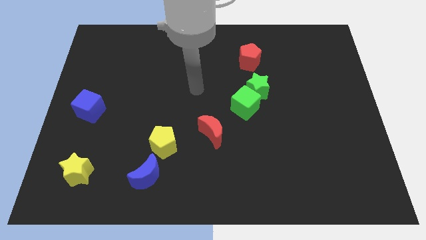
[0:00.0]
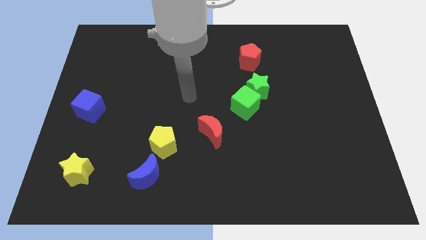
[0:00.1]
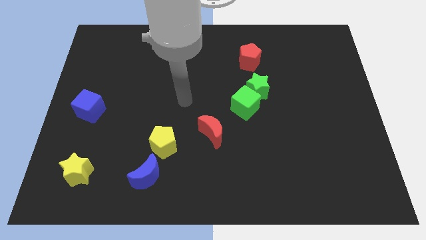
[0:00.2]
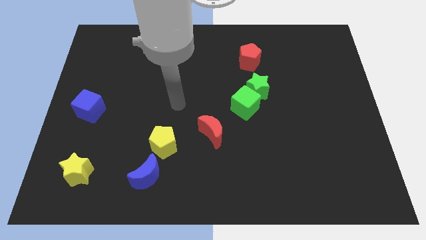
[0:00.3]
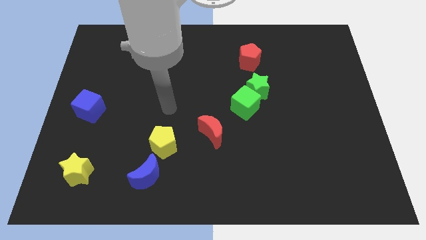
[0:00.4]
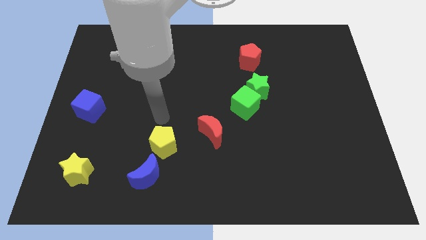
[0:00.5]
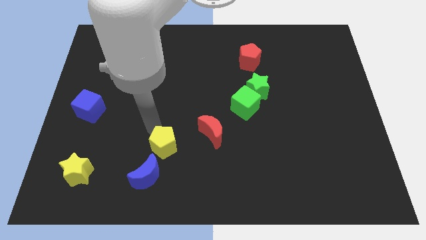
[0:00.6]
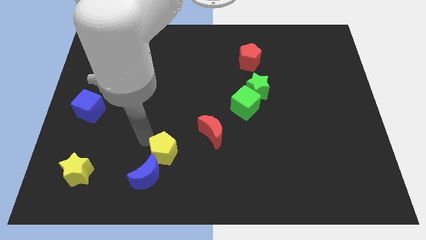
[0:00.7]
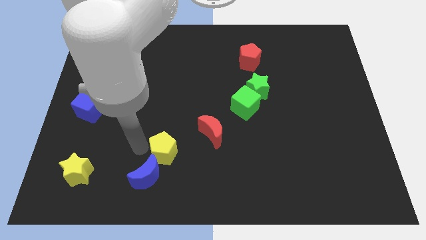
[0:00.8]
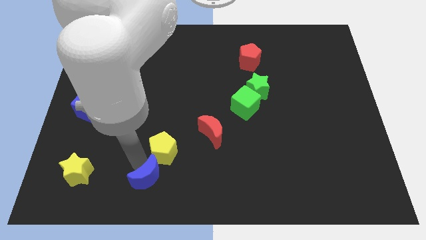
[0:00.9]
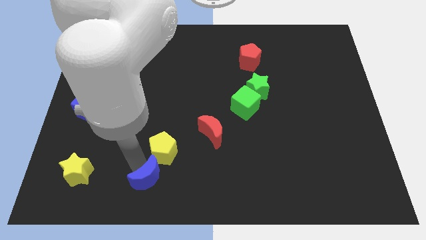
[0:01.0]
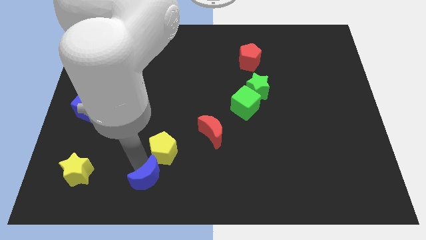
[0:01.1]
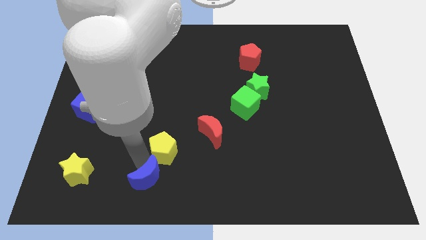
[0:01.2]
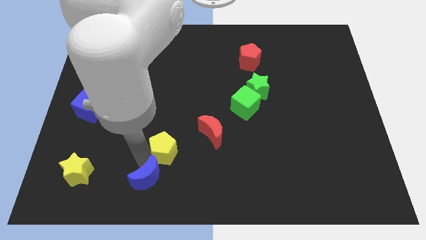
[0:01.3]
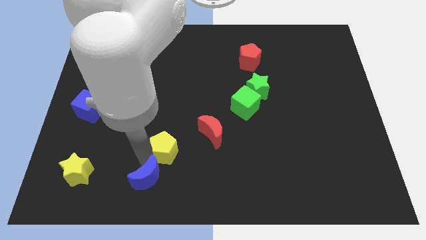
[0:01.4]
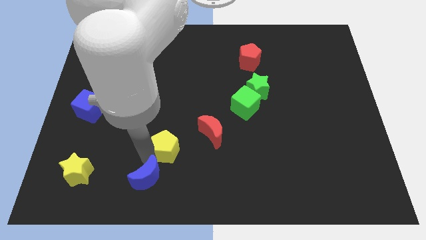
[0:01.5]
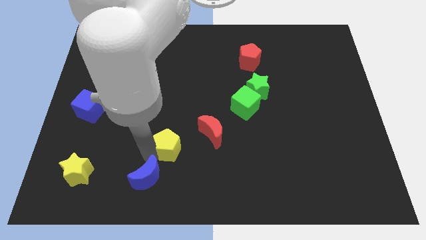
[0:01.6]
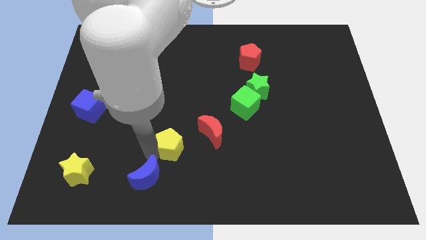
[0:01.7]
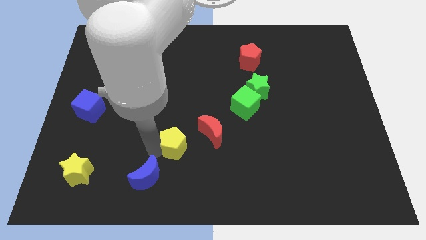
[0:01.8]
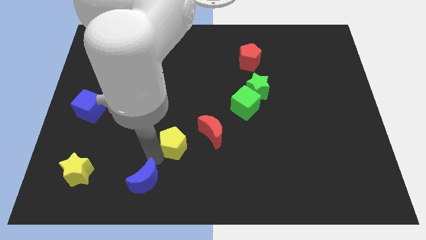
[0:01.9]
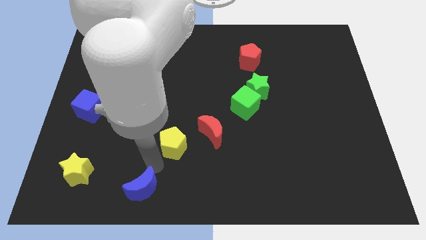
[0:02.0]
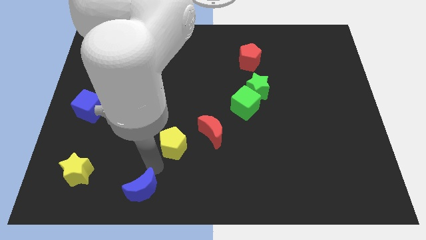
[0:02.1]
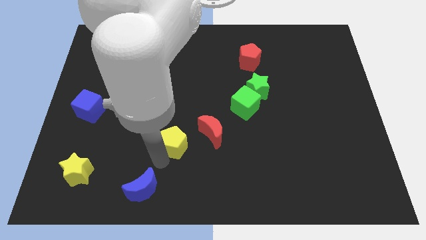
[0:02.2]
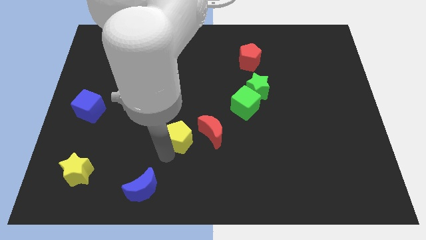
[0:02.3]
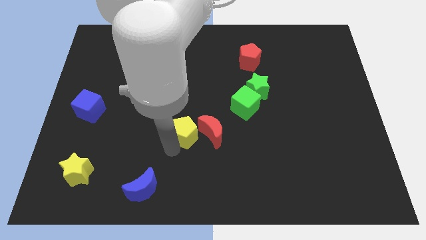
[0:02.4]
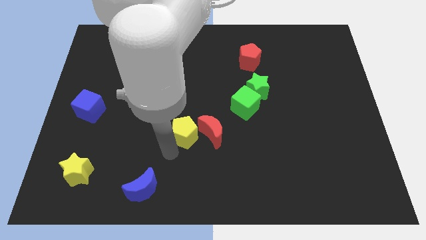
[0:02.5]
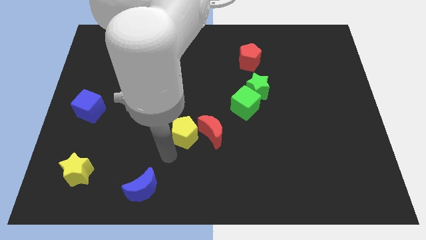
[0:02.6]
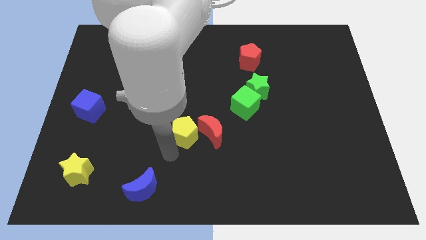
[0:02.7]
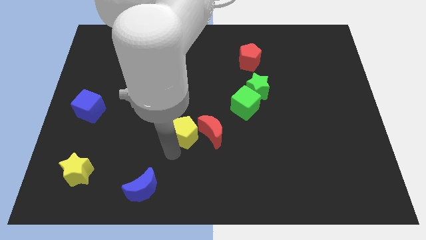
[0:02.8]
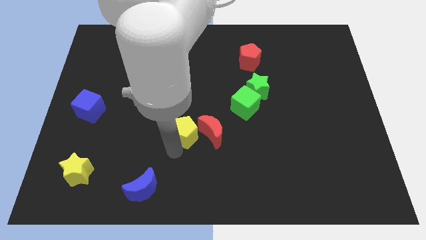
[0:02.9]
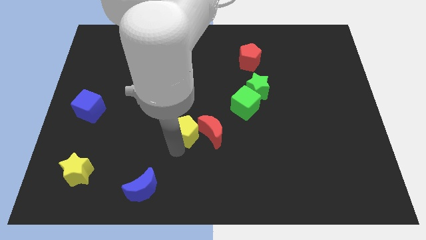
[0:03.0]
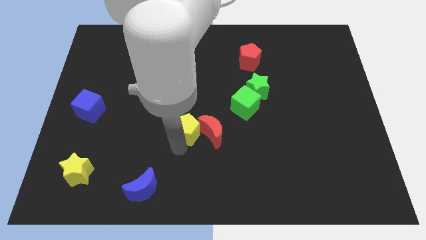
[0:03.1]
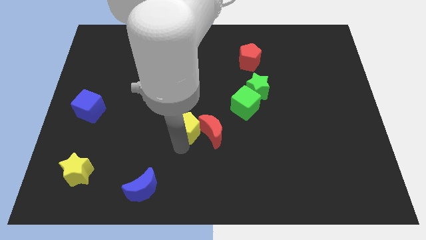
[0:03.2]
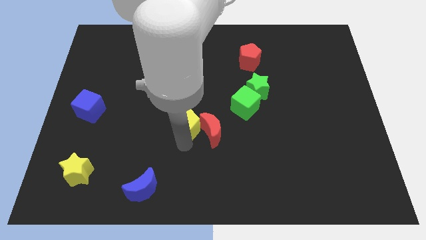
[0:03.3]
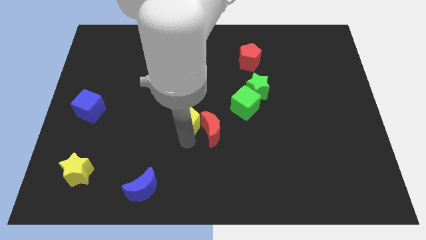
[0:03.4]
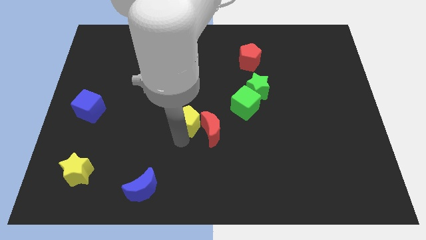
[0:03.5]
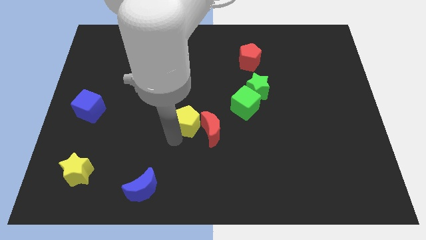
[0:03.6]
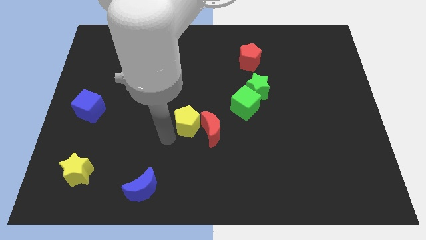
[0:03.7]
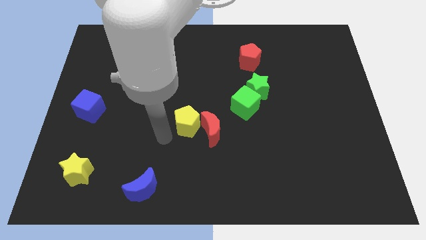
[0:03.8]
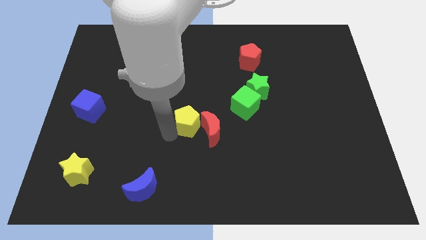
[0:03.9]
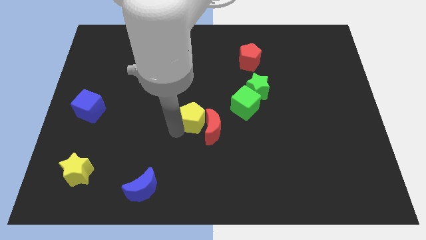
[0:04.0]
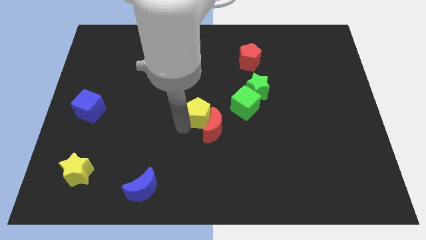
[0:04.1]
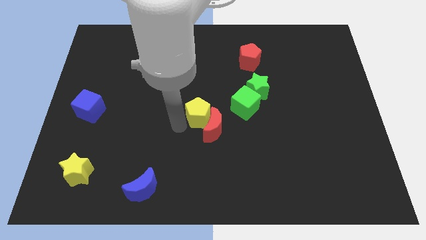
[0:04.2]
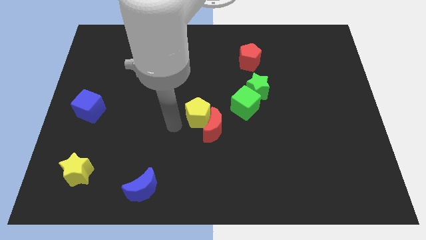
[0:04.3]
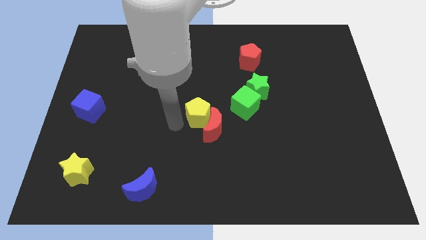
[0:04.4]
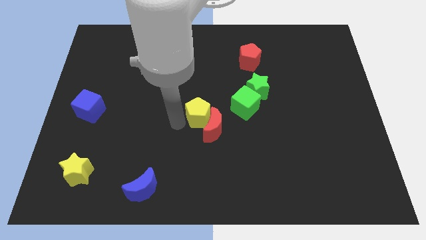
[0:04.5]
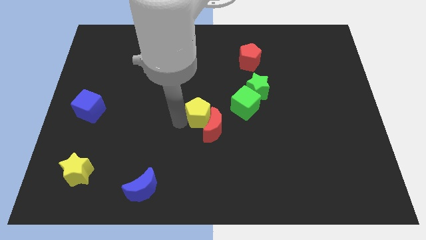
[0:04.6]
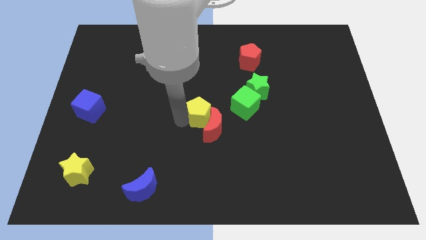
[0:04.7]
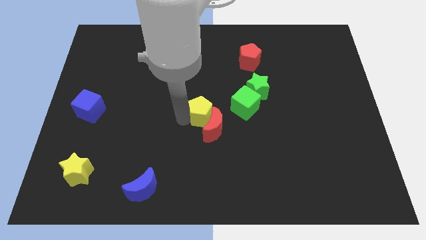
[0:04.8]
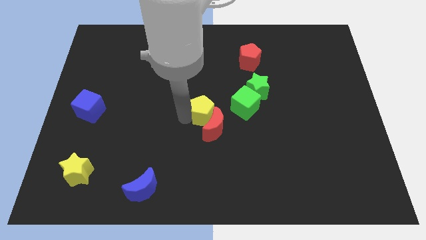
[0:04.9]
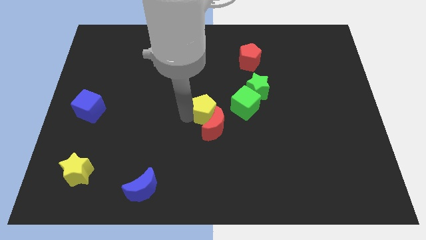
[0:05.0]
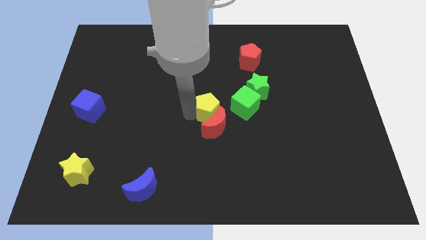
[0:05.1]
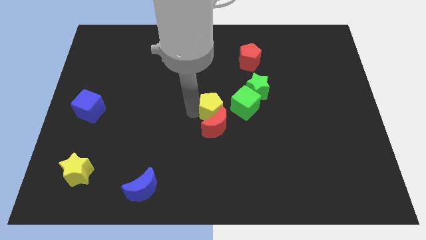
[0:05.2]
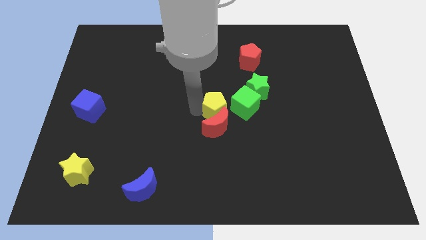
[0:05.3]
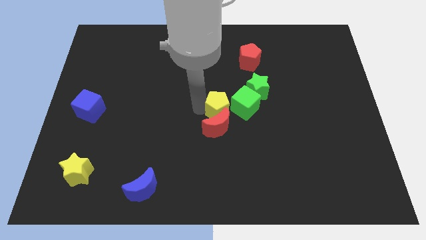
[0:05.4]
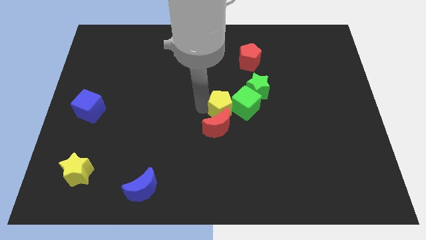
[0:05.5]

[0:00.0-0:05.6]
put the yellow pentagon next to the green cube
